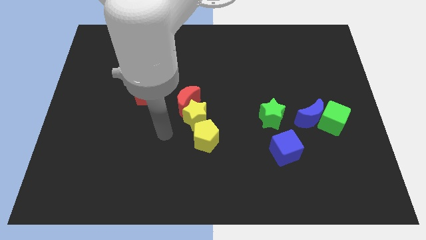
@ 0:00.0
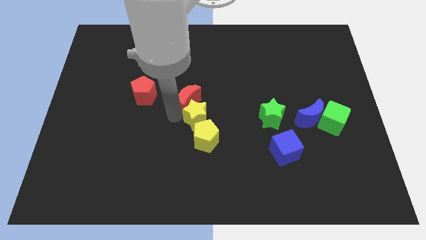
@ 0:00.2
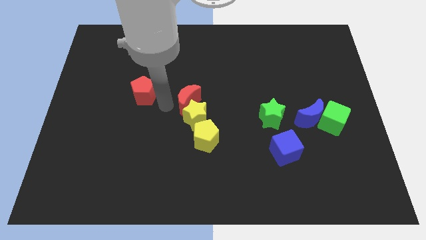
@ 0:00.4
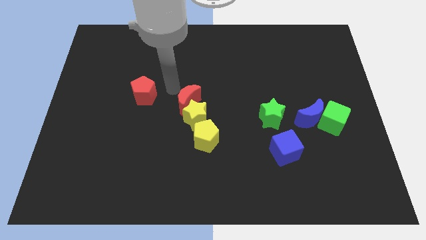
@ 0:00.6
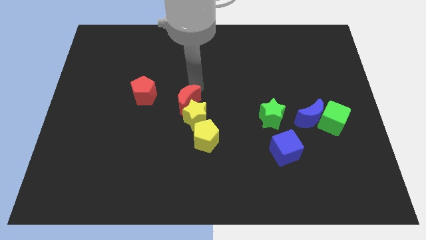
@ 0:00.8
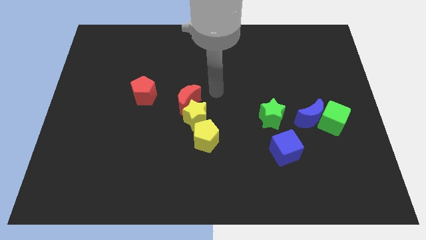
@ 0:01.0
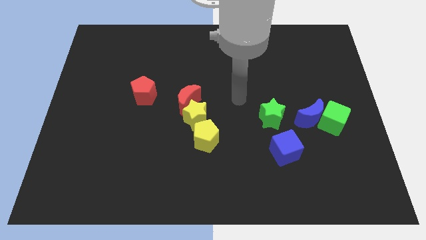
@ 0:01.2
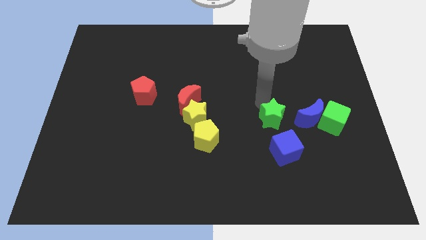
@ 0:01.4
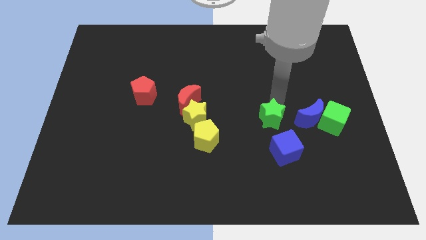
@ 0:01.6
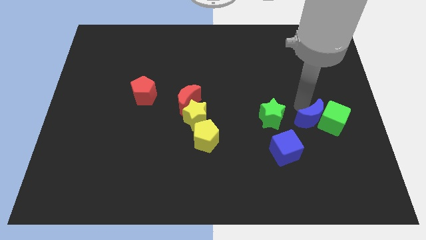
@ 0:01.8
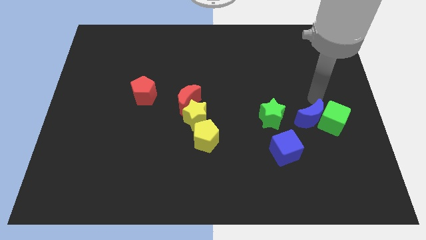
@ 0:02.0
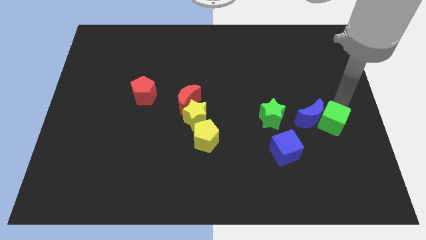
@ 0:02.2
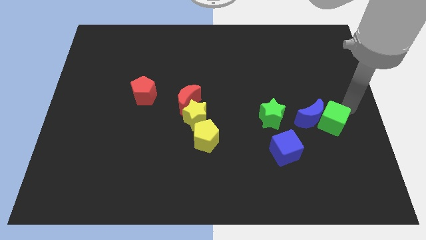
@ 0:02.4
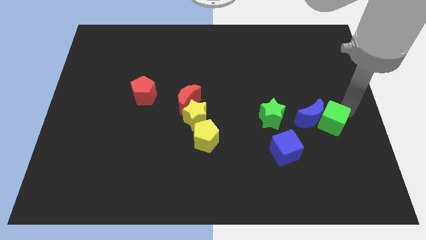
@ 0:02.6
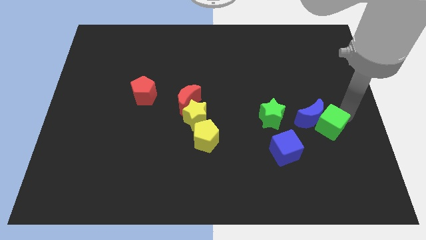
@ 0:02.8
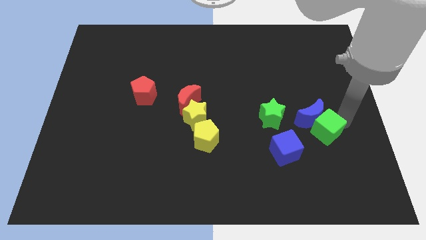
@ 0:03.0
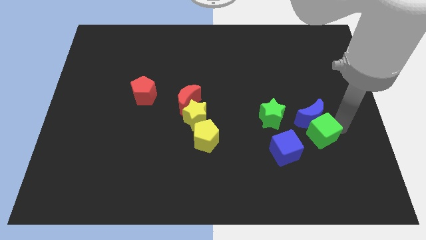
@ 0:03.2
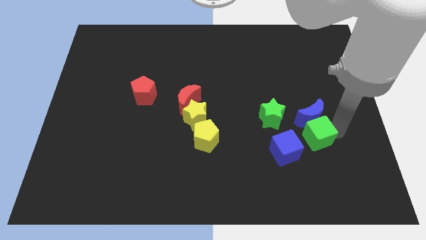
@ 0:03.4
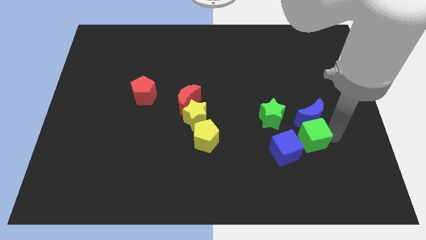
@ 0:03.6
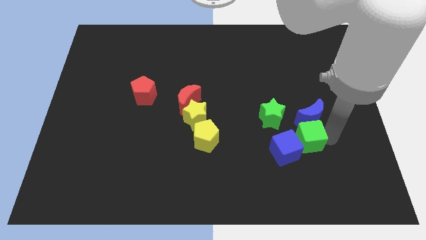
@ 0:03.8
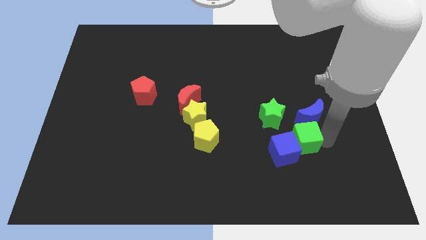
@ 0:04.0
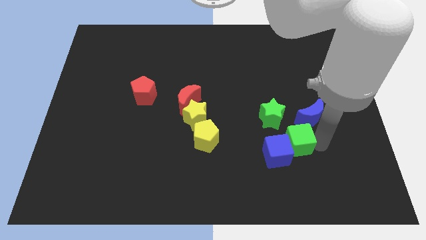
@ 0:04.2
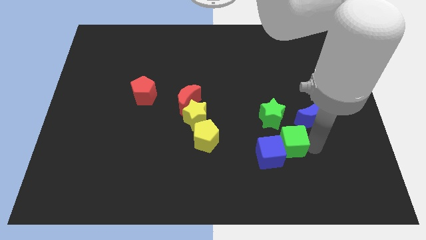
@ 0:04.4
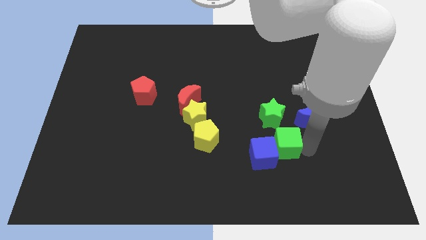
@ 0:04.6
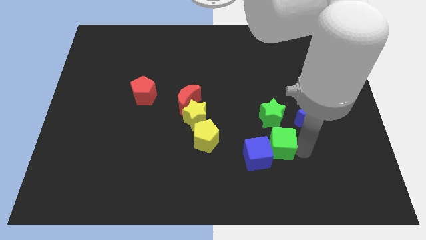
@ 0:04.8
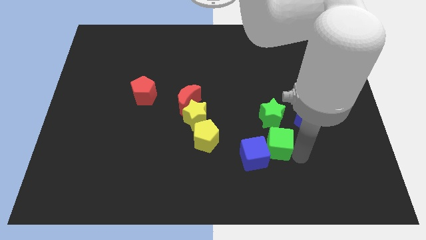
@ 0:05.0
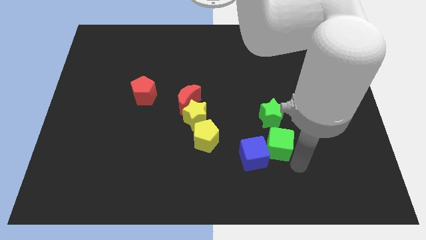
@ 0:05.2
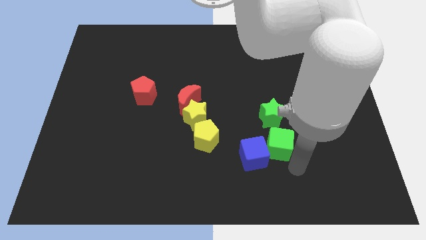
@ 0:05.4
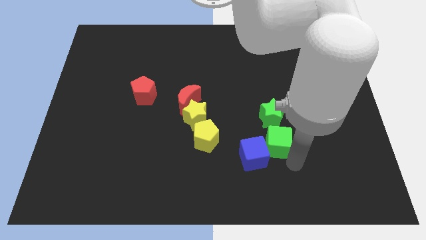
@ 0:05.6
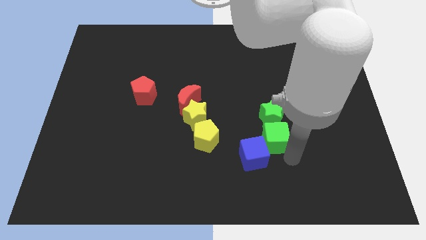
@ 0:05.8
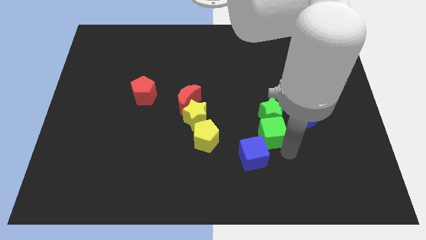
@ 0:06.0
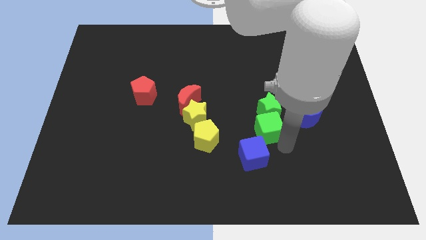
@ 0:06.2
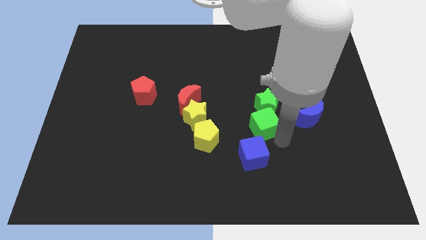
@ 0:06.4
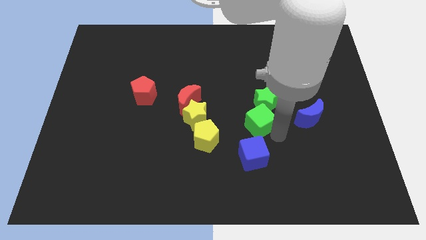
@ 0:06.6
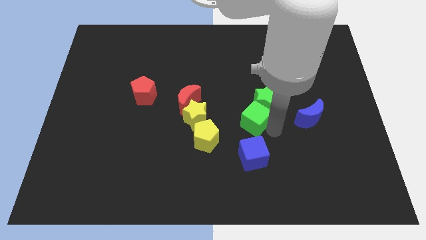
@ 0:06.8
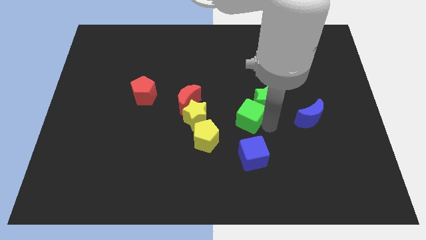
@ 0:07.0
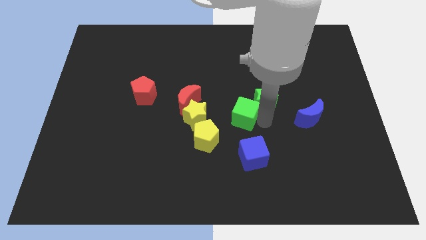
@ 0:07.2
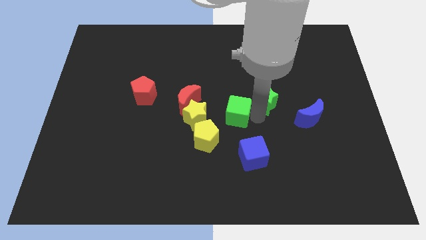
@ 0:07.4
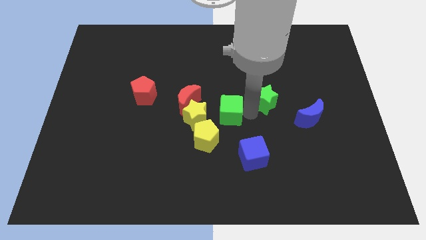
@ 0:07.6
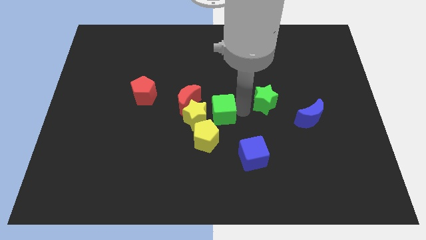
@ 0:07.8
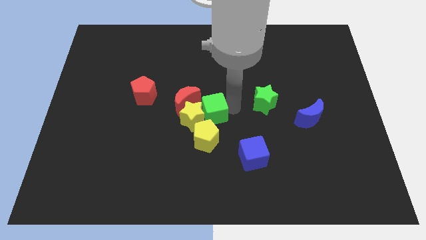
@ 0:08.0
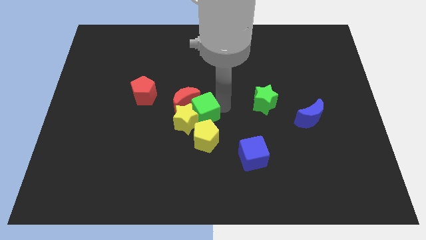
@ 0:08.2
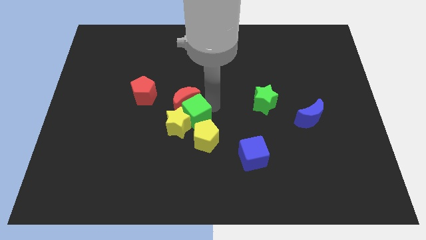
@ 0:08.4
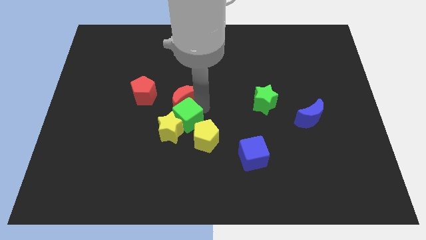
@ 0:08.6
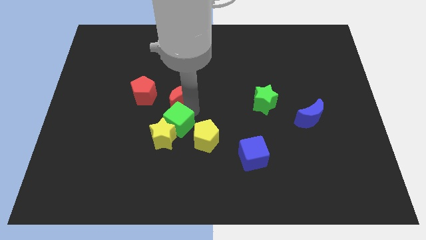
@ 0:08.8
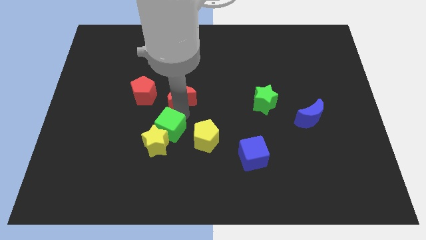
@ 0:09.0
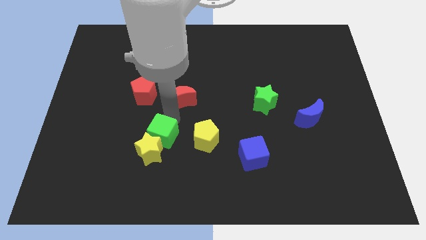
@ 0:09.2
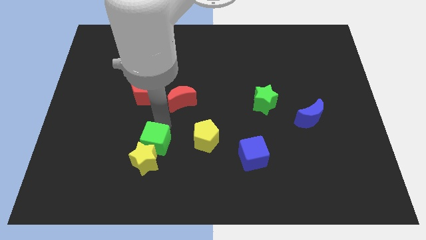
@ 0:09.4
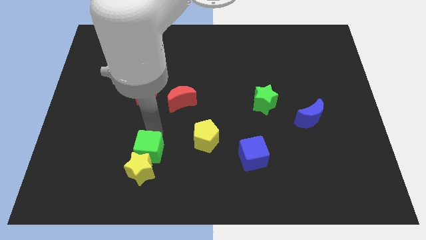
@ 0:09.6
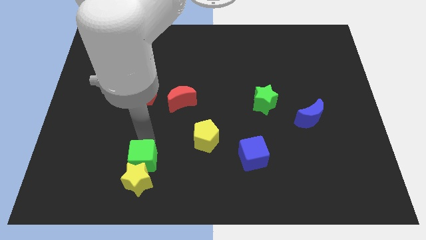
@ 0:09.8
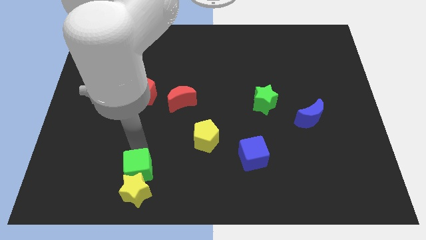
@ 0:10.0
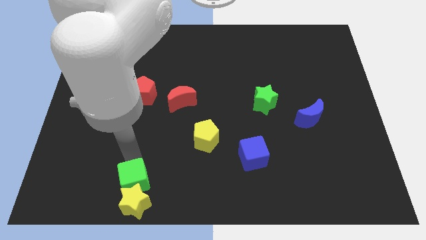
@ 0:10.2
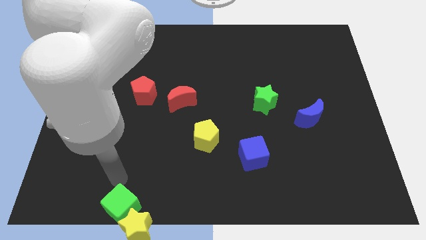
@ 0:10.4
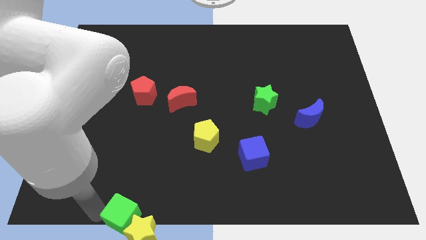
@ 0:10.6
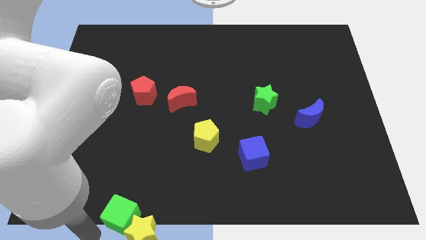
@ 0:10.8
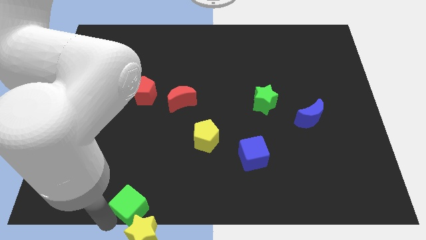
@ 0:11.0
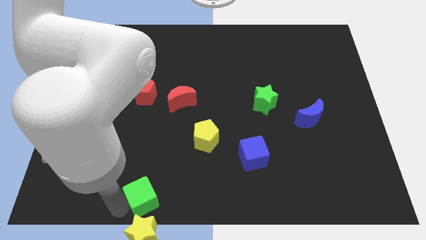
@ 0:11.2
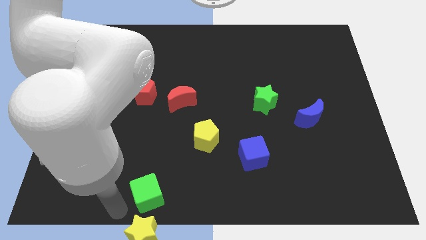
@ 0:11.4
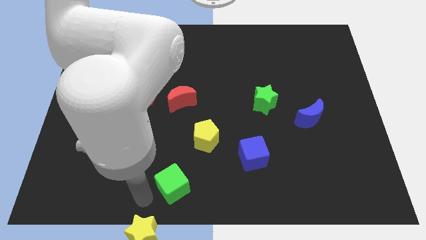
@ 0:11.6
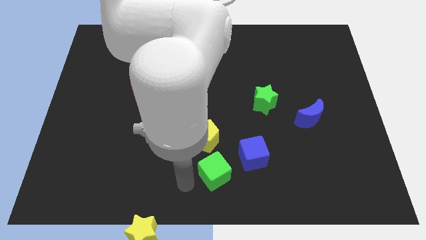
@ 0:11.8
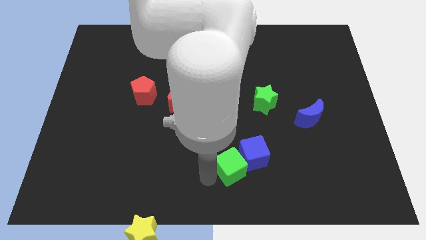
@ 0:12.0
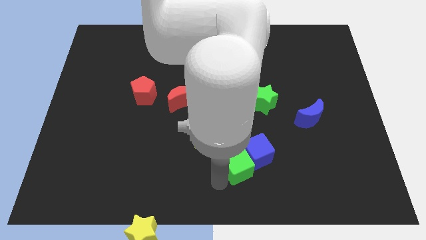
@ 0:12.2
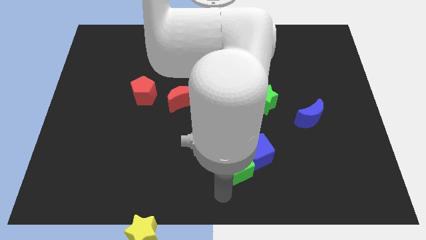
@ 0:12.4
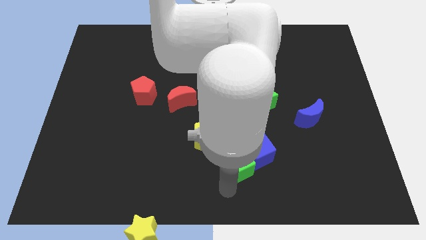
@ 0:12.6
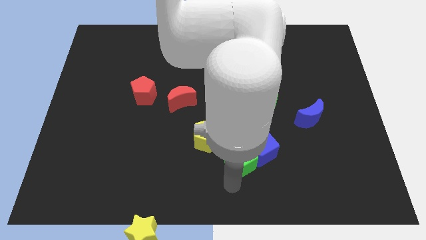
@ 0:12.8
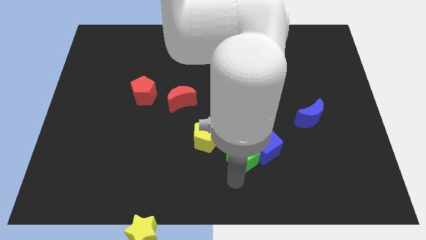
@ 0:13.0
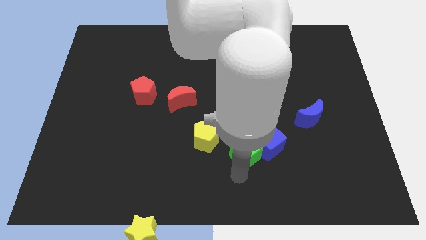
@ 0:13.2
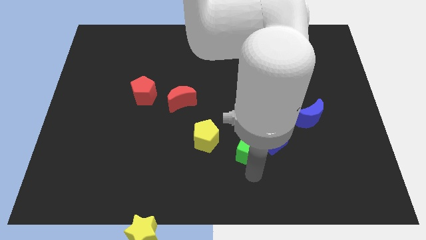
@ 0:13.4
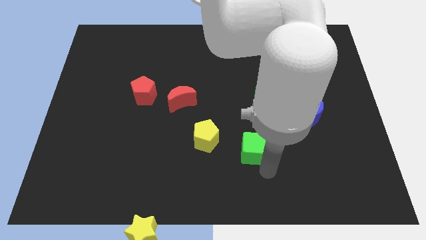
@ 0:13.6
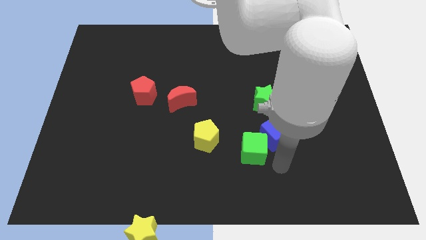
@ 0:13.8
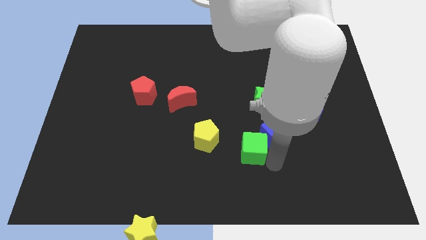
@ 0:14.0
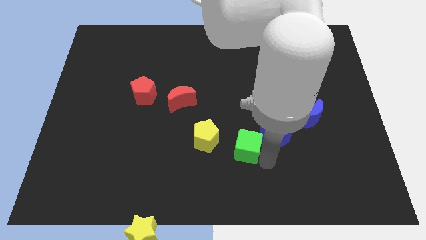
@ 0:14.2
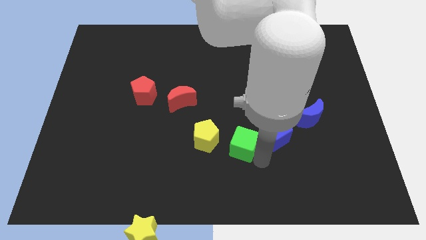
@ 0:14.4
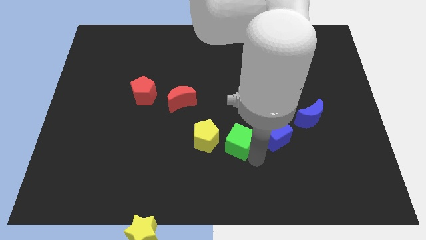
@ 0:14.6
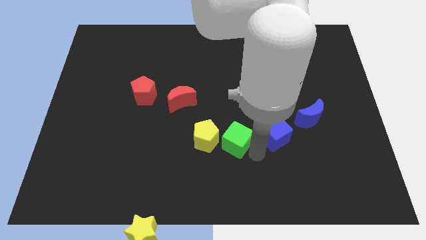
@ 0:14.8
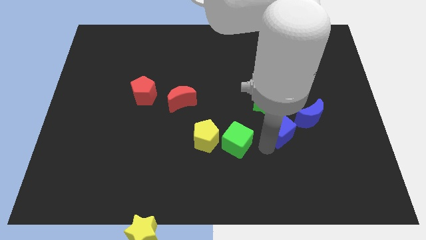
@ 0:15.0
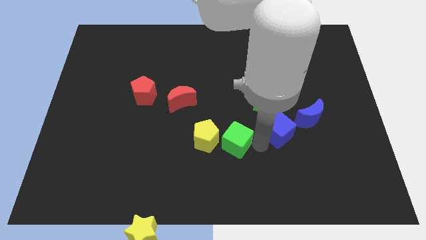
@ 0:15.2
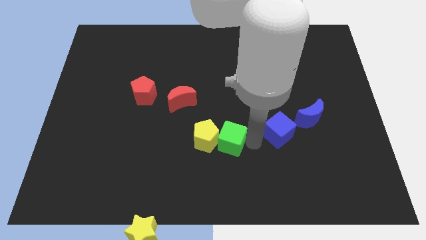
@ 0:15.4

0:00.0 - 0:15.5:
slide the green cube close to the yellow pentagon
